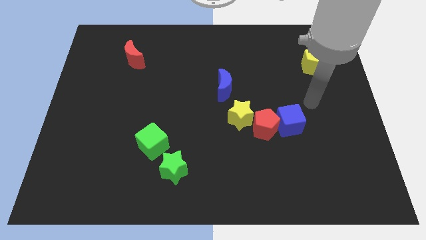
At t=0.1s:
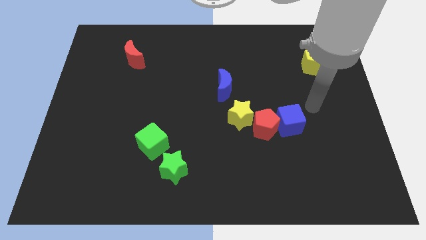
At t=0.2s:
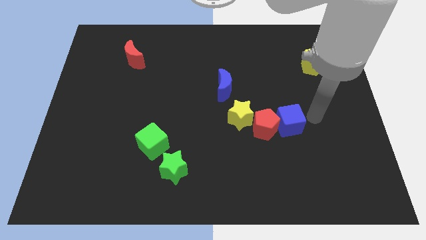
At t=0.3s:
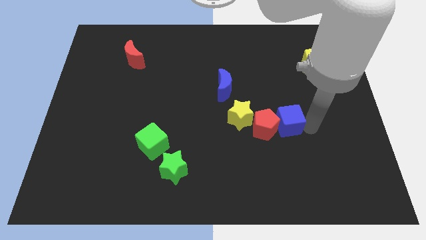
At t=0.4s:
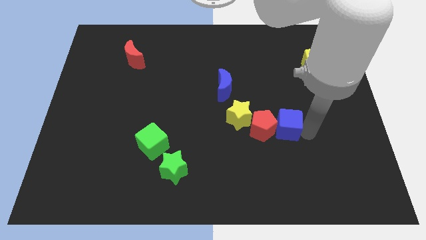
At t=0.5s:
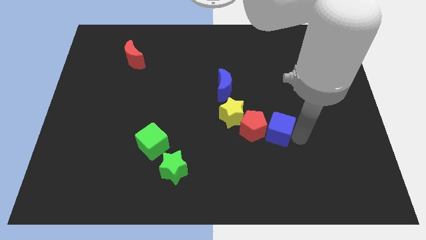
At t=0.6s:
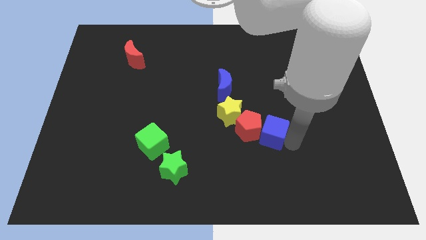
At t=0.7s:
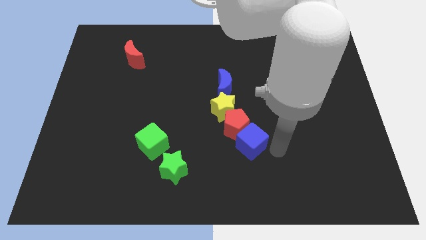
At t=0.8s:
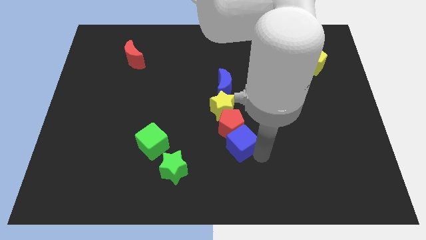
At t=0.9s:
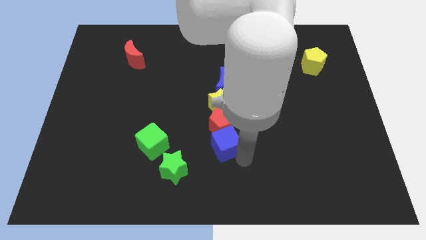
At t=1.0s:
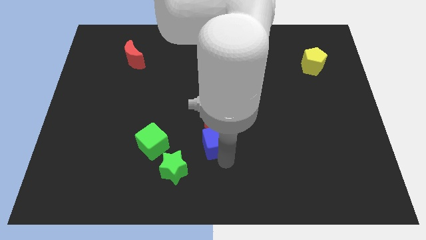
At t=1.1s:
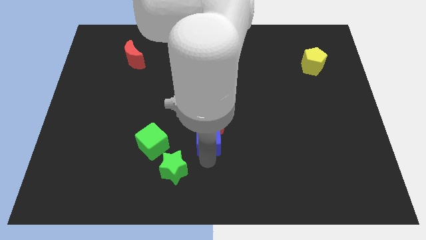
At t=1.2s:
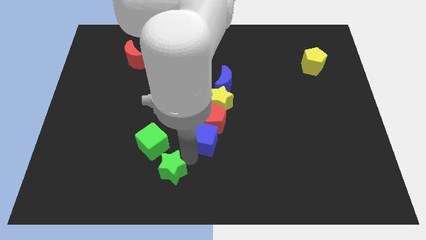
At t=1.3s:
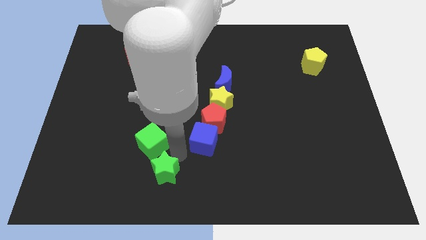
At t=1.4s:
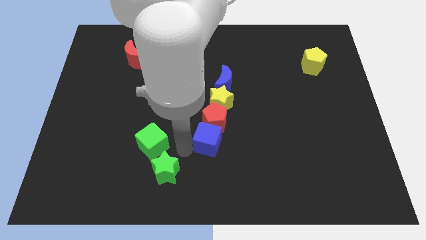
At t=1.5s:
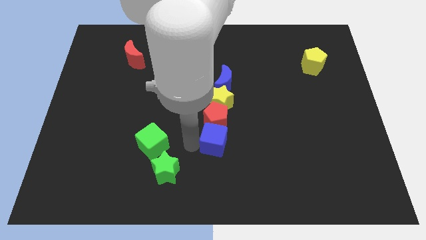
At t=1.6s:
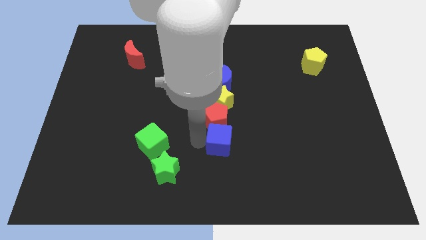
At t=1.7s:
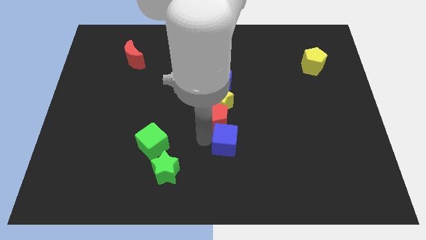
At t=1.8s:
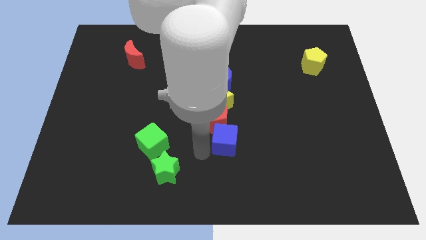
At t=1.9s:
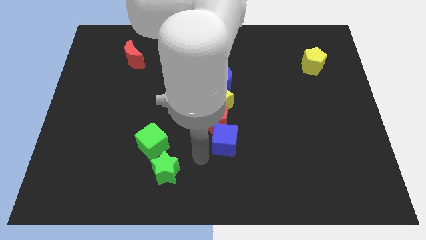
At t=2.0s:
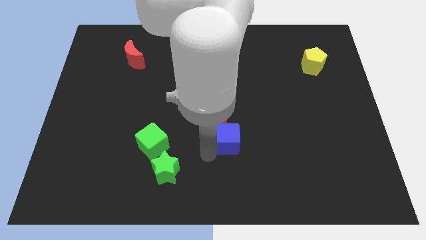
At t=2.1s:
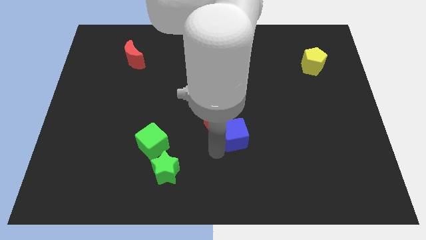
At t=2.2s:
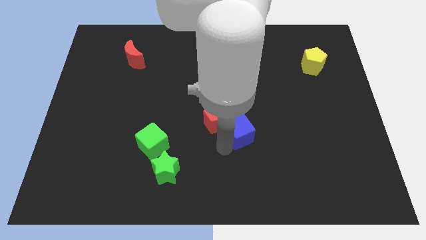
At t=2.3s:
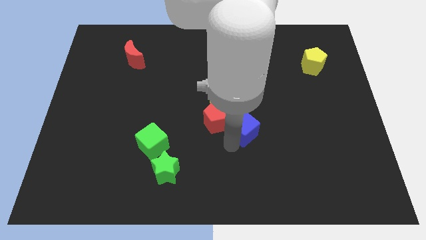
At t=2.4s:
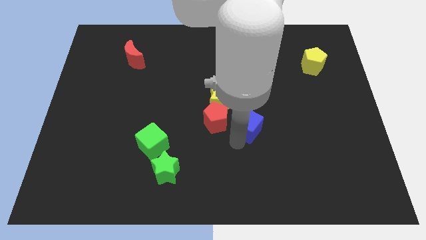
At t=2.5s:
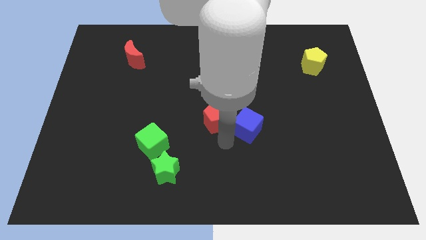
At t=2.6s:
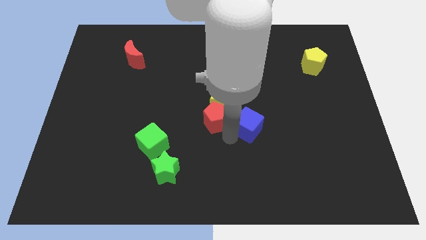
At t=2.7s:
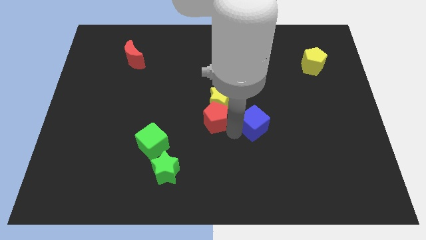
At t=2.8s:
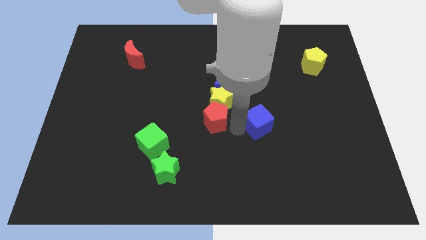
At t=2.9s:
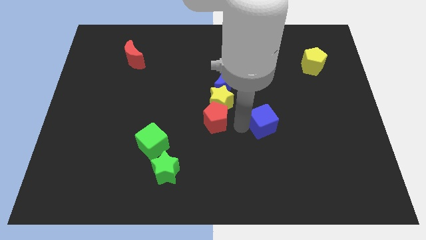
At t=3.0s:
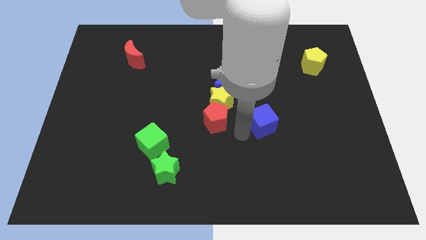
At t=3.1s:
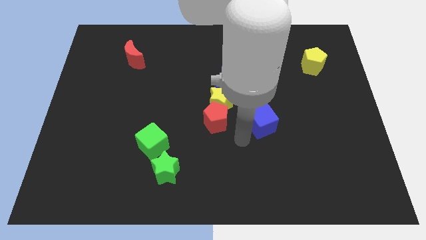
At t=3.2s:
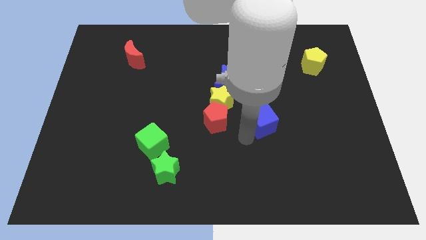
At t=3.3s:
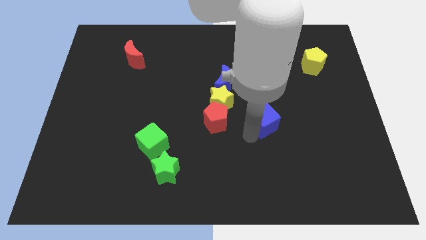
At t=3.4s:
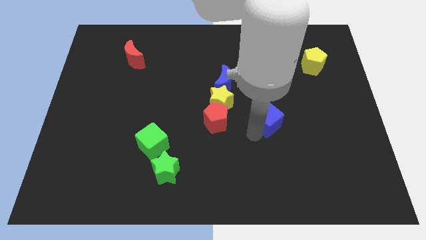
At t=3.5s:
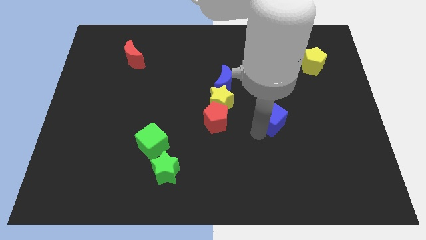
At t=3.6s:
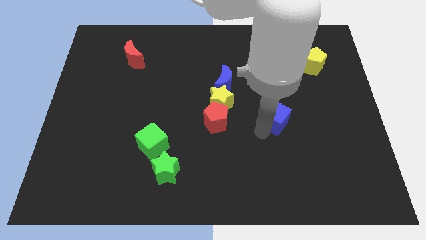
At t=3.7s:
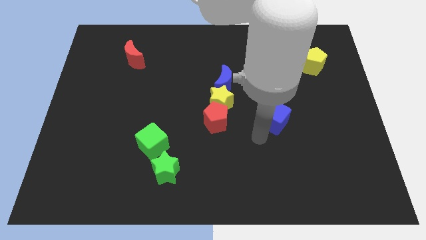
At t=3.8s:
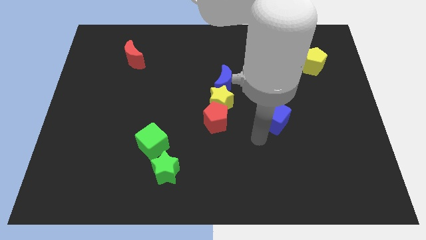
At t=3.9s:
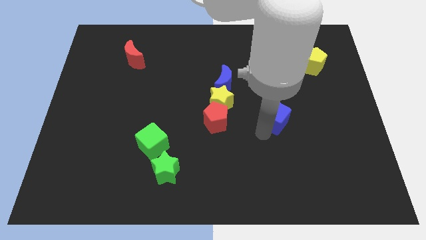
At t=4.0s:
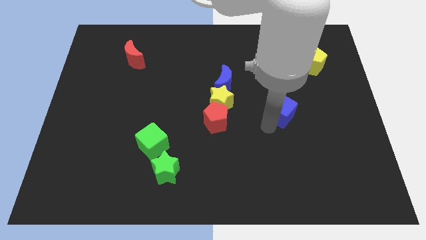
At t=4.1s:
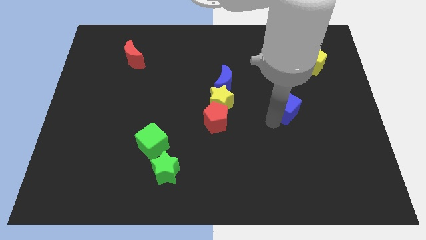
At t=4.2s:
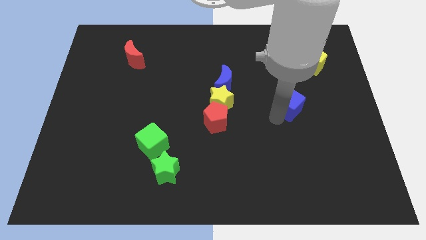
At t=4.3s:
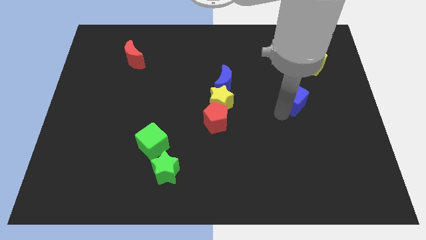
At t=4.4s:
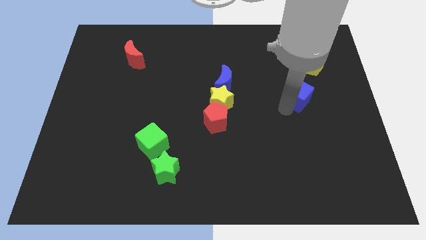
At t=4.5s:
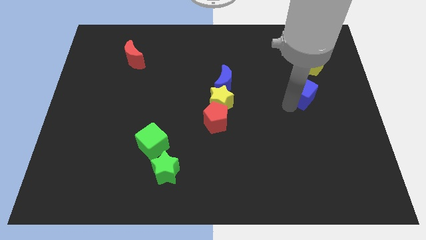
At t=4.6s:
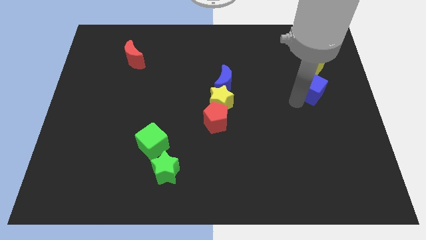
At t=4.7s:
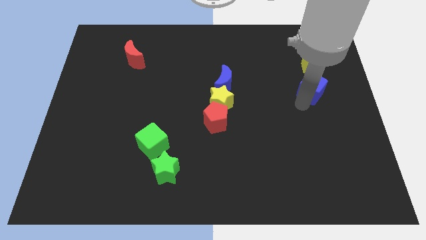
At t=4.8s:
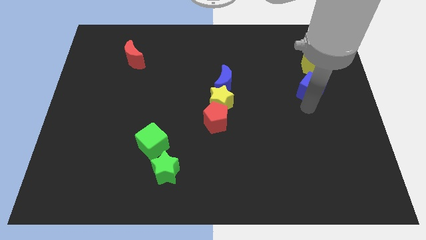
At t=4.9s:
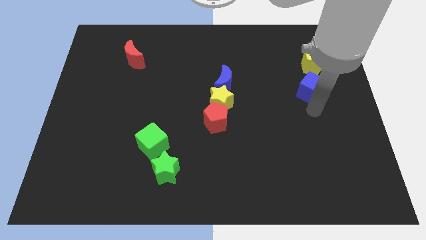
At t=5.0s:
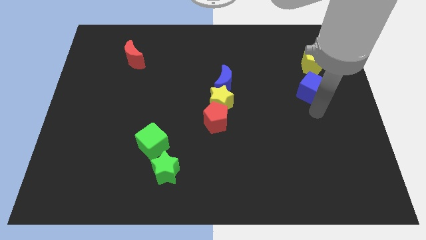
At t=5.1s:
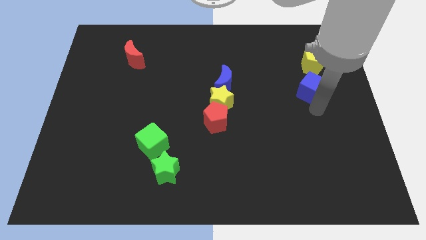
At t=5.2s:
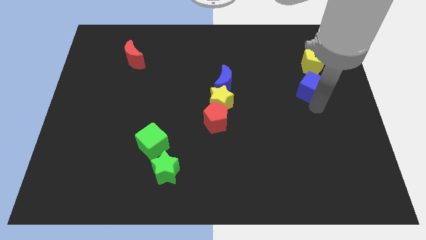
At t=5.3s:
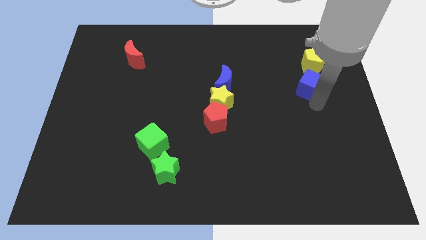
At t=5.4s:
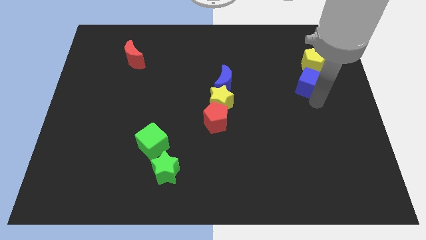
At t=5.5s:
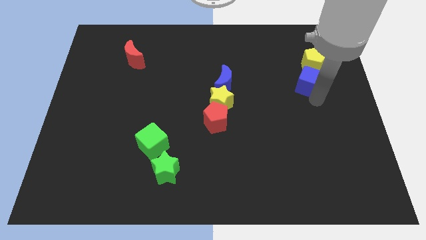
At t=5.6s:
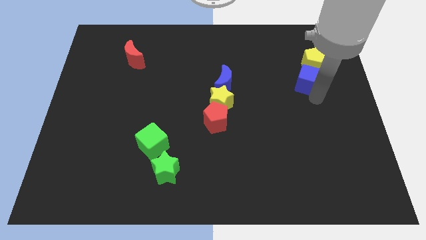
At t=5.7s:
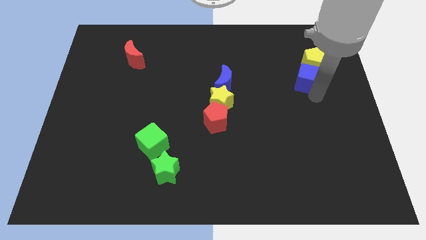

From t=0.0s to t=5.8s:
push the blue cube towards the yellow pentagon

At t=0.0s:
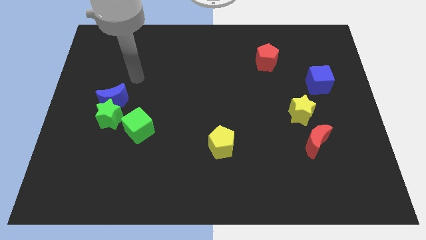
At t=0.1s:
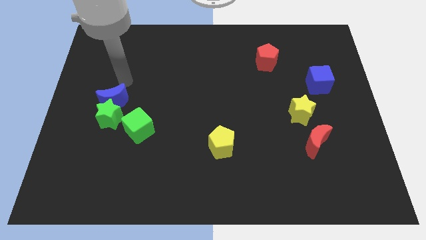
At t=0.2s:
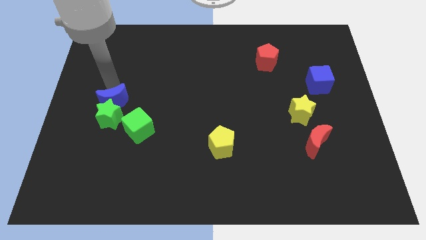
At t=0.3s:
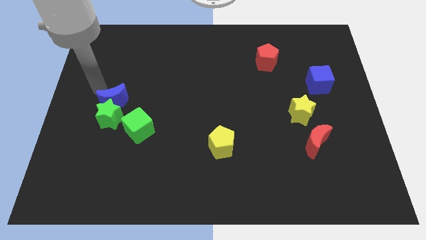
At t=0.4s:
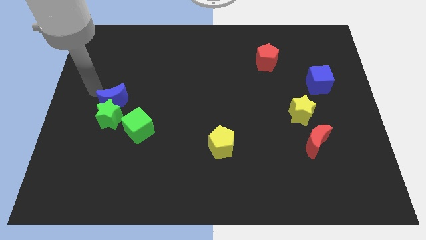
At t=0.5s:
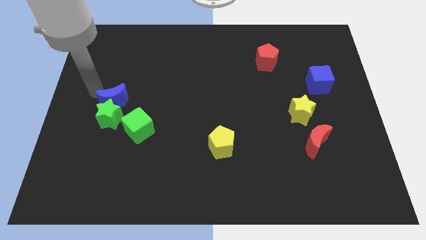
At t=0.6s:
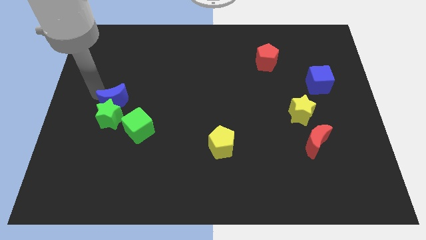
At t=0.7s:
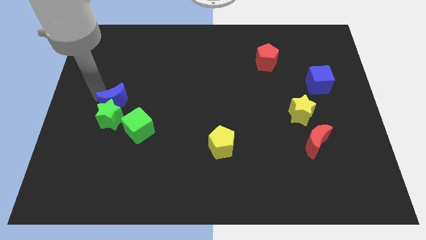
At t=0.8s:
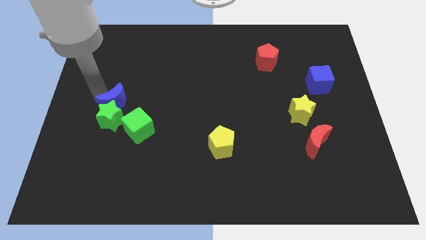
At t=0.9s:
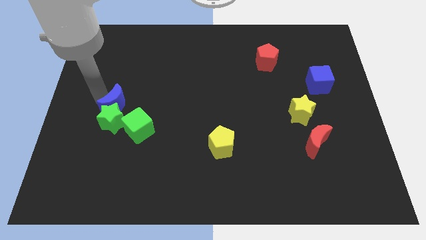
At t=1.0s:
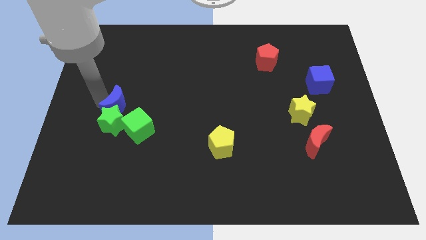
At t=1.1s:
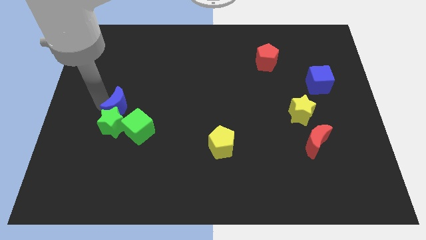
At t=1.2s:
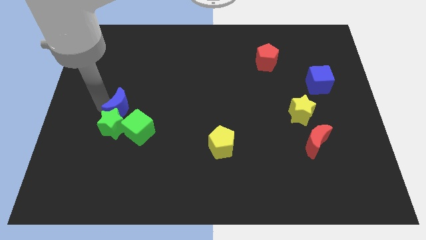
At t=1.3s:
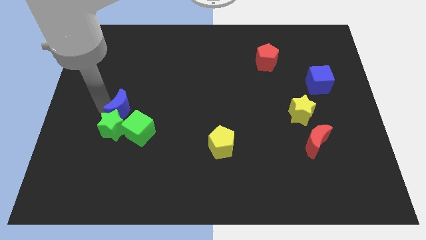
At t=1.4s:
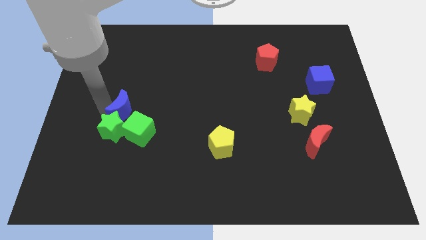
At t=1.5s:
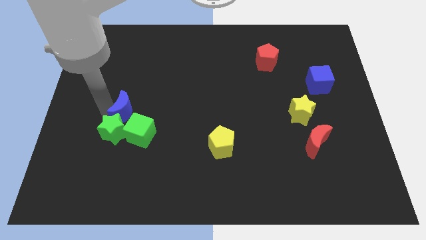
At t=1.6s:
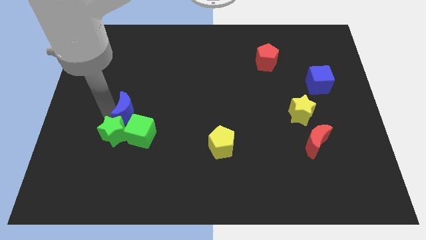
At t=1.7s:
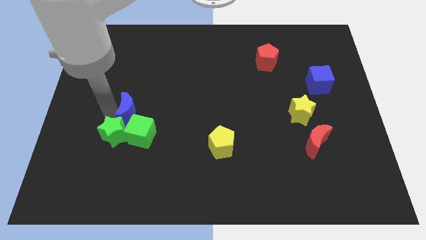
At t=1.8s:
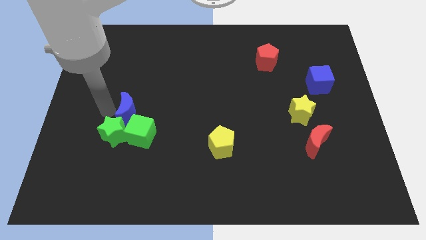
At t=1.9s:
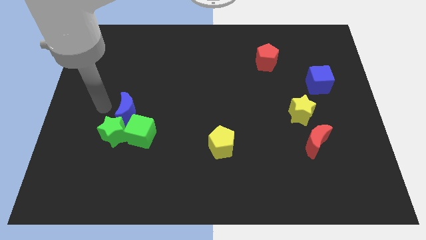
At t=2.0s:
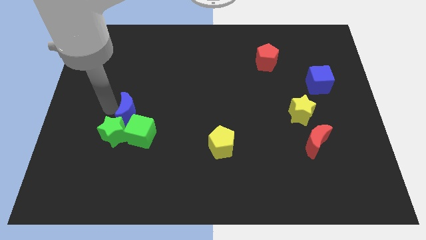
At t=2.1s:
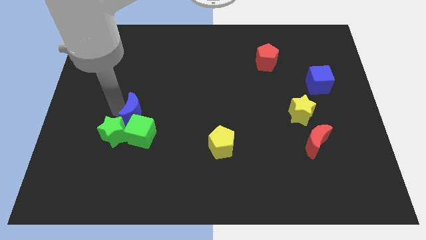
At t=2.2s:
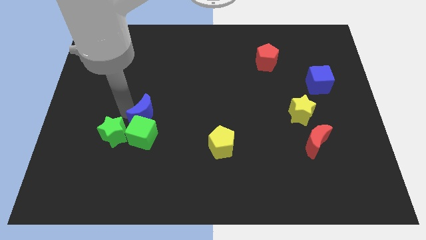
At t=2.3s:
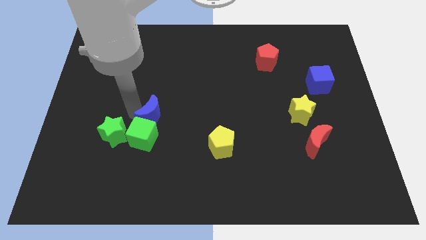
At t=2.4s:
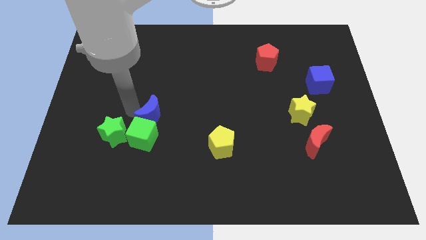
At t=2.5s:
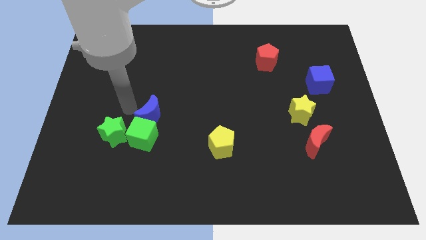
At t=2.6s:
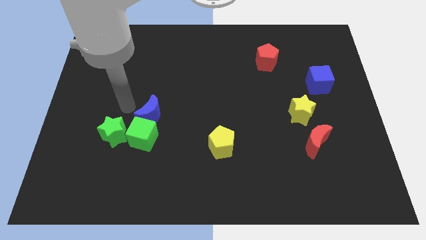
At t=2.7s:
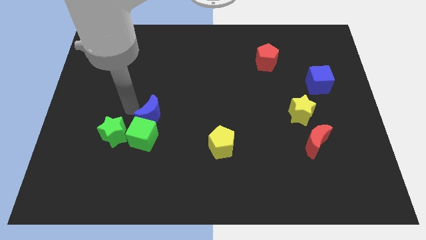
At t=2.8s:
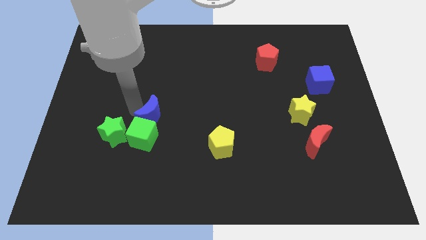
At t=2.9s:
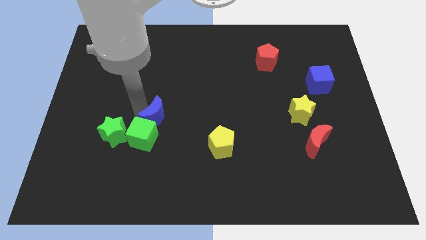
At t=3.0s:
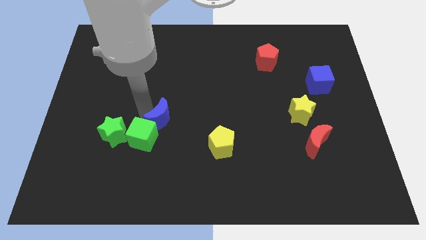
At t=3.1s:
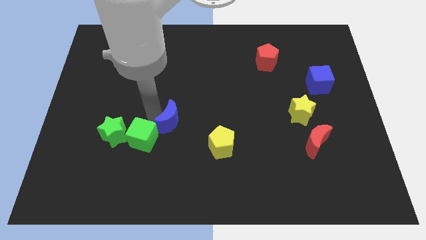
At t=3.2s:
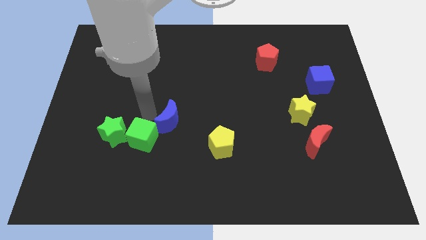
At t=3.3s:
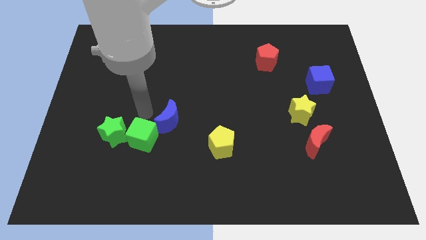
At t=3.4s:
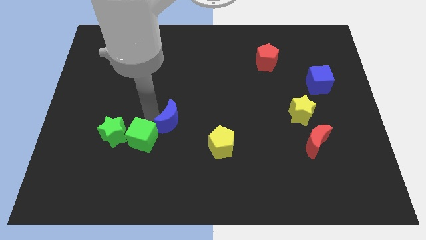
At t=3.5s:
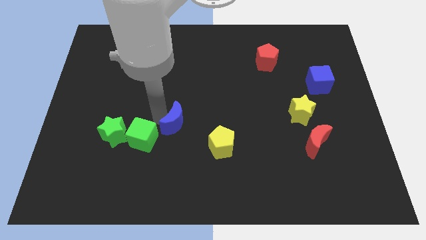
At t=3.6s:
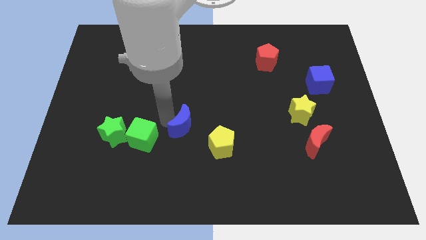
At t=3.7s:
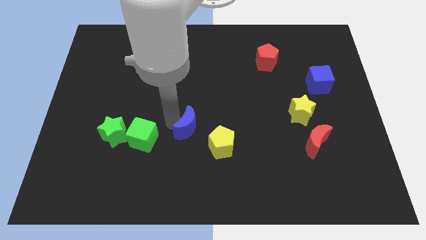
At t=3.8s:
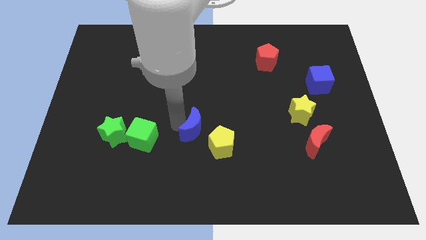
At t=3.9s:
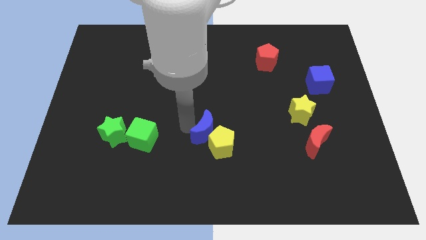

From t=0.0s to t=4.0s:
slide the blue moon next to the yellow pentagon
